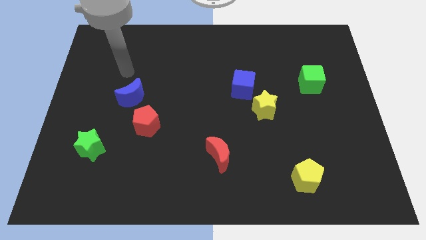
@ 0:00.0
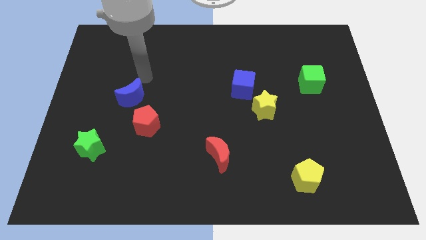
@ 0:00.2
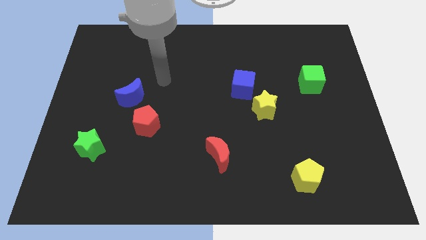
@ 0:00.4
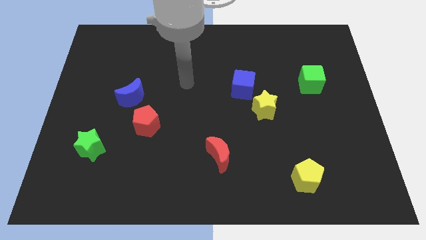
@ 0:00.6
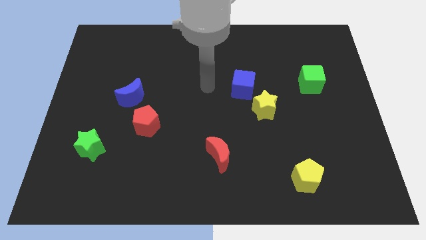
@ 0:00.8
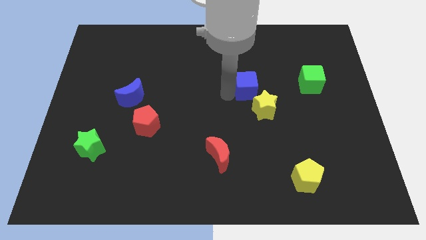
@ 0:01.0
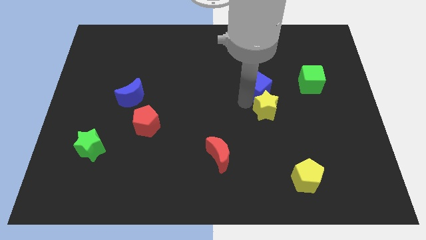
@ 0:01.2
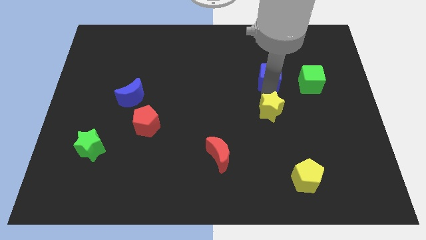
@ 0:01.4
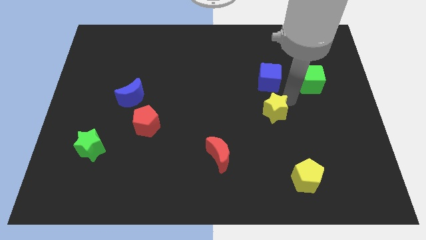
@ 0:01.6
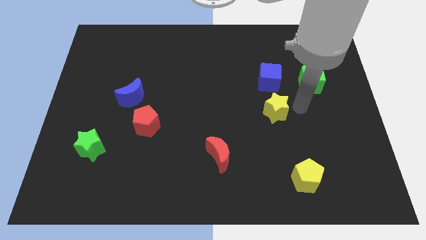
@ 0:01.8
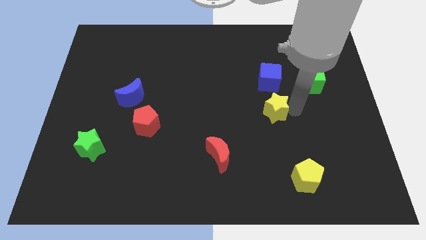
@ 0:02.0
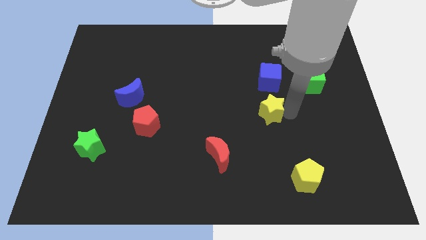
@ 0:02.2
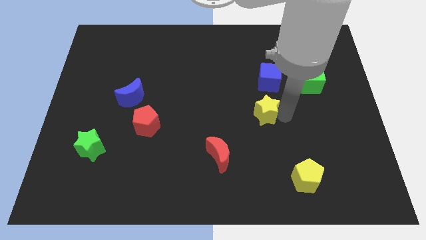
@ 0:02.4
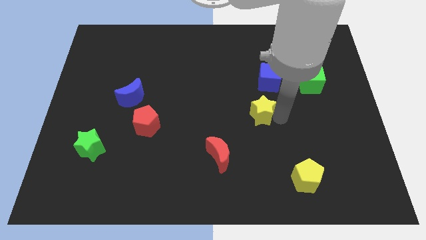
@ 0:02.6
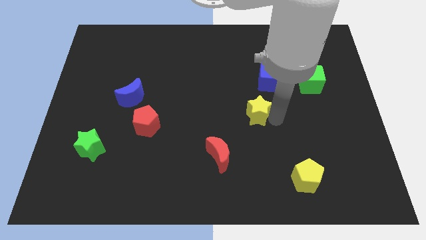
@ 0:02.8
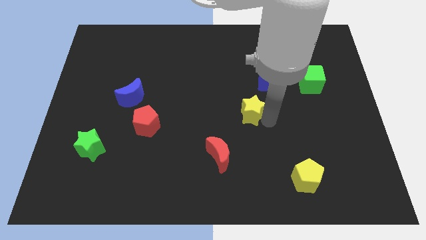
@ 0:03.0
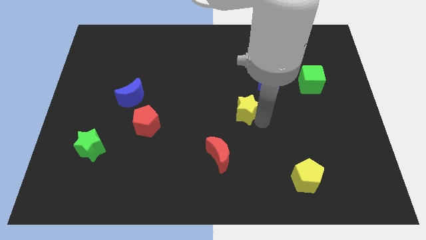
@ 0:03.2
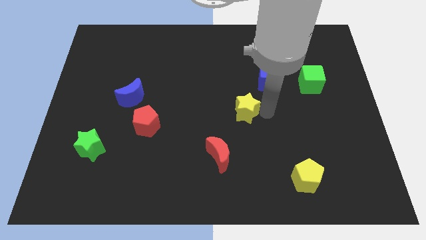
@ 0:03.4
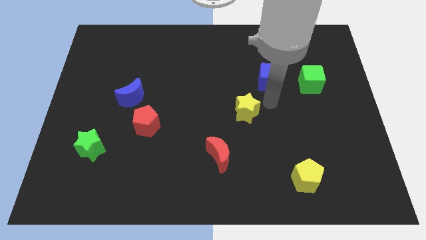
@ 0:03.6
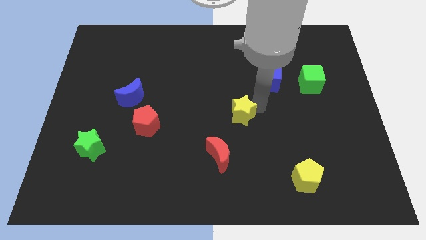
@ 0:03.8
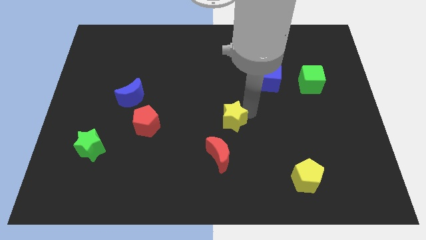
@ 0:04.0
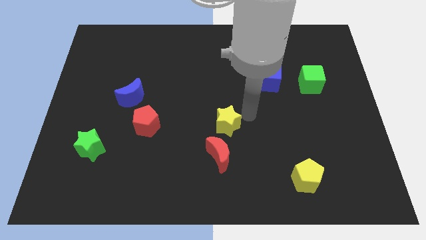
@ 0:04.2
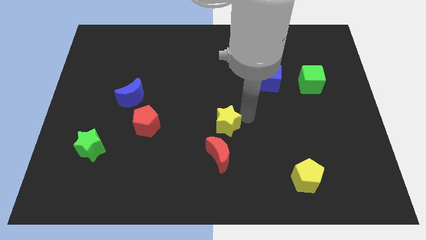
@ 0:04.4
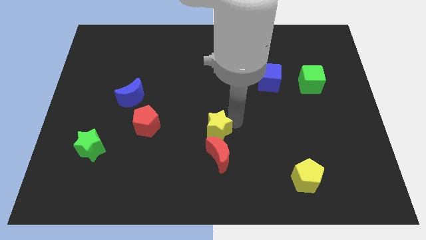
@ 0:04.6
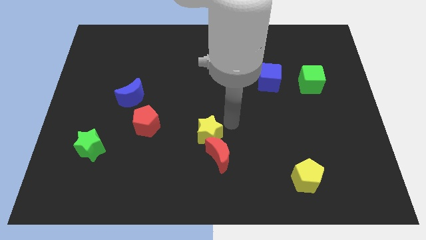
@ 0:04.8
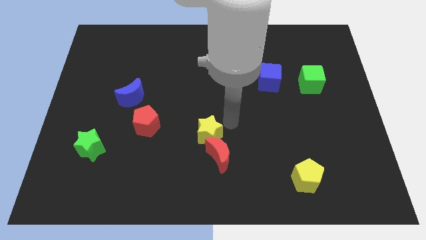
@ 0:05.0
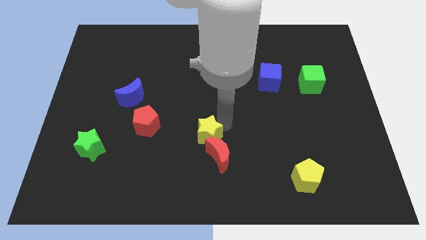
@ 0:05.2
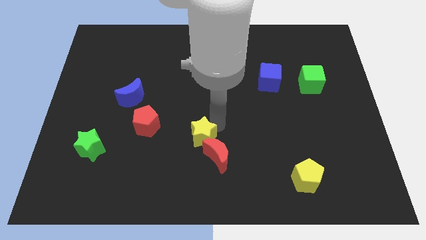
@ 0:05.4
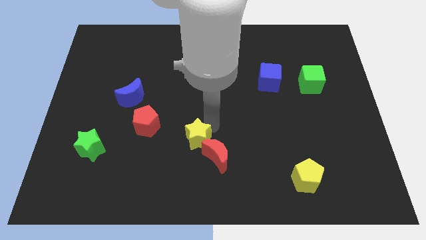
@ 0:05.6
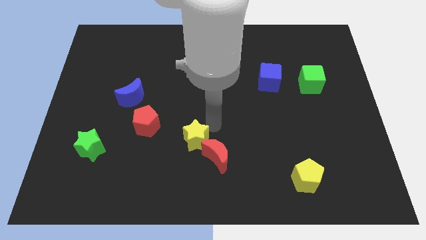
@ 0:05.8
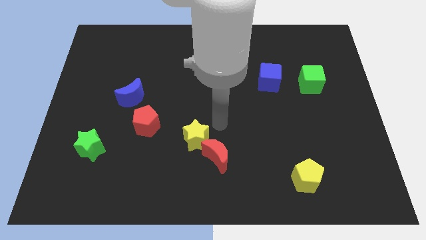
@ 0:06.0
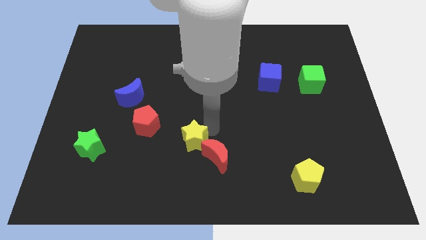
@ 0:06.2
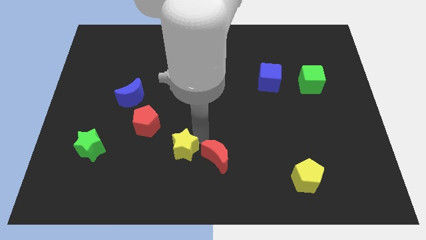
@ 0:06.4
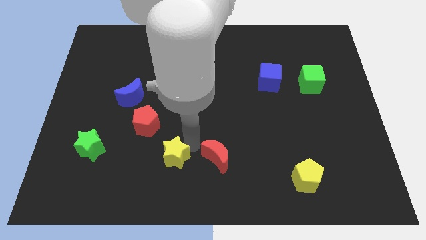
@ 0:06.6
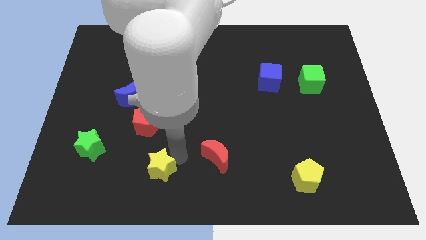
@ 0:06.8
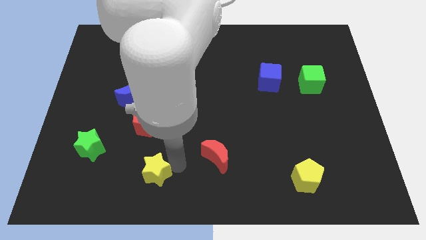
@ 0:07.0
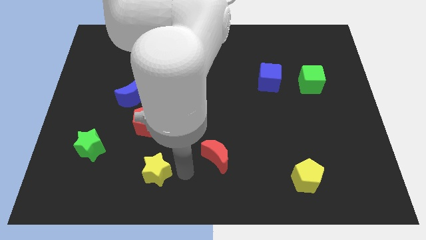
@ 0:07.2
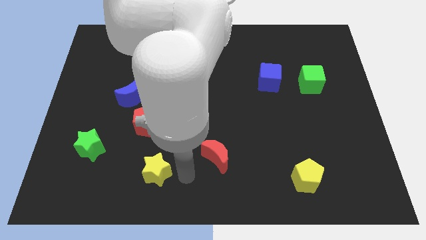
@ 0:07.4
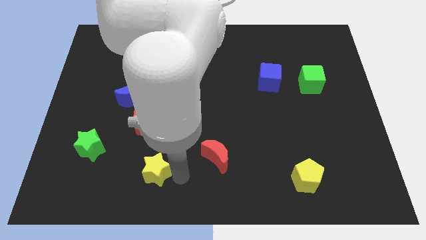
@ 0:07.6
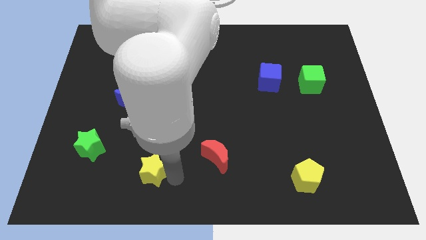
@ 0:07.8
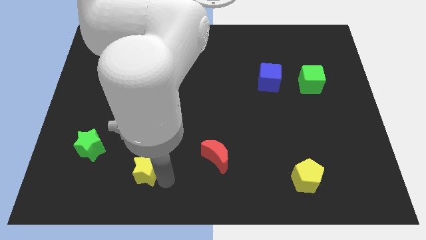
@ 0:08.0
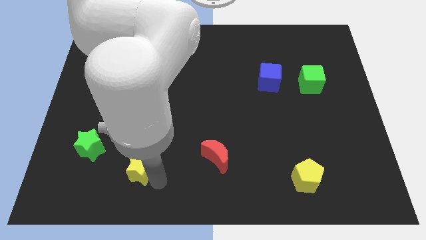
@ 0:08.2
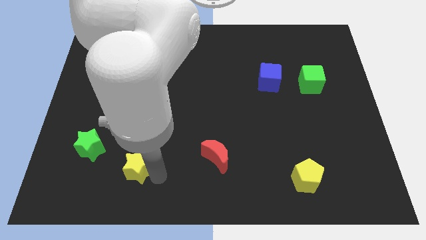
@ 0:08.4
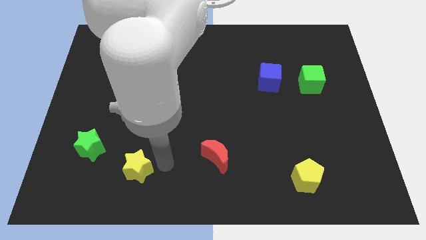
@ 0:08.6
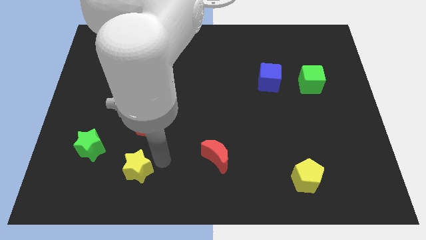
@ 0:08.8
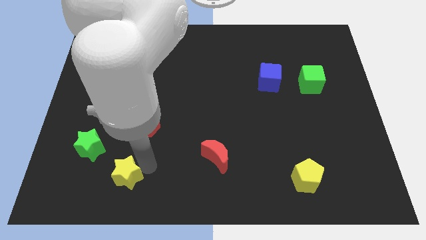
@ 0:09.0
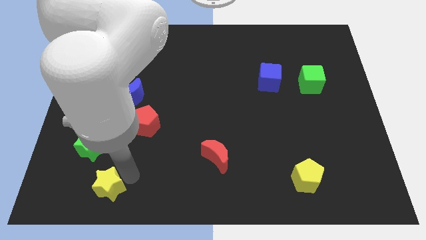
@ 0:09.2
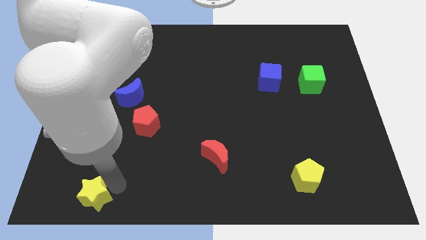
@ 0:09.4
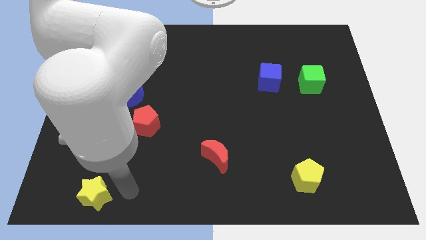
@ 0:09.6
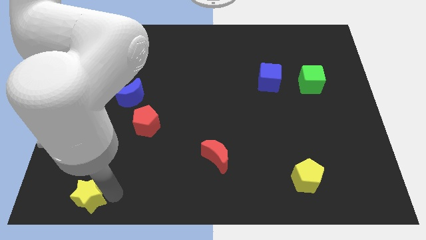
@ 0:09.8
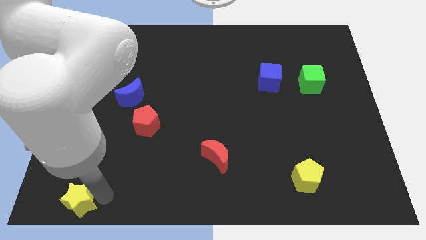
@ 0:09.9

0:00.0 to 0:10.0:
slide the yellow star to the bottom left corner
